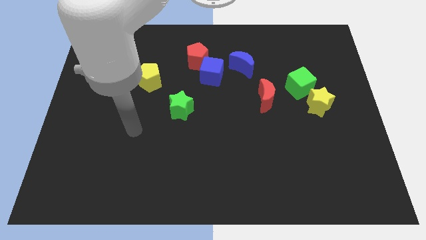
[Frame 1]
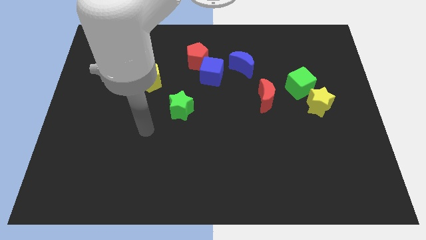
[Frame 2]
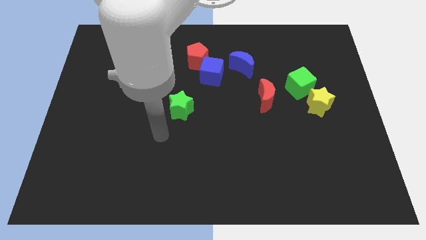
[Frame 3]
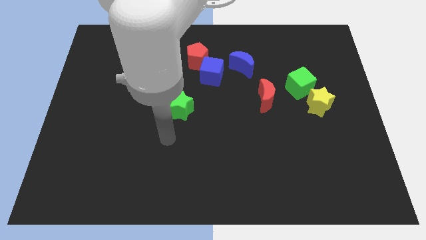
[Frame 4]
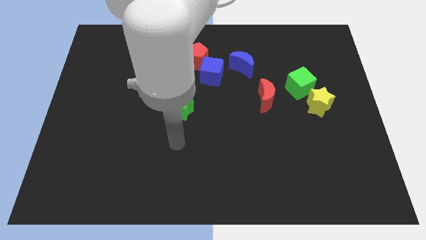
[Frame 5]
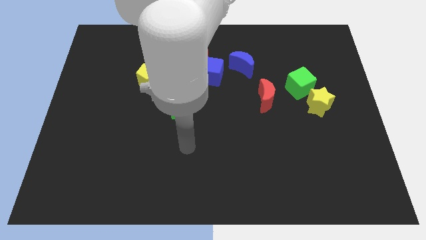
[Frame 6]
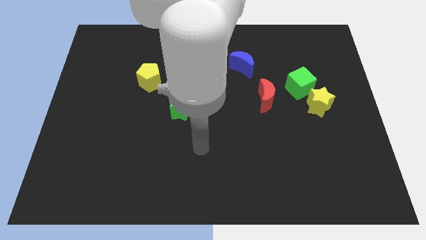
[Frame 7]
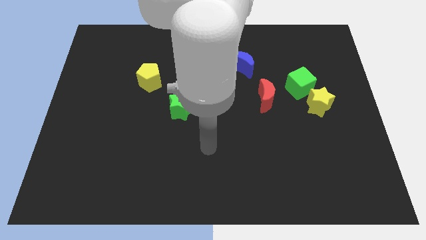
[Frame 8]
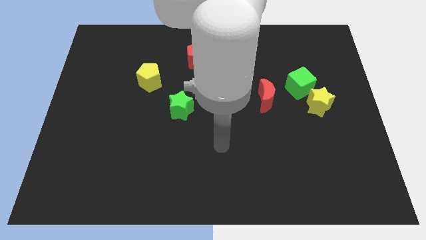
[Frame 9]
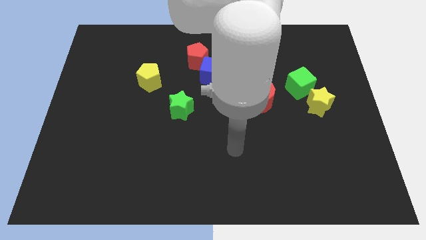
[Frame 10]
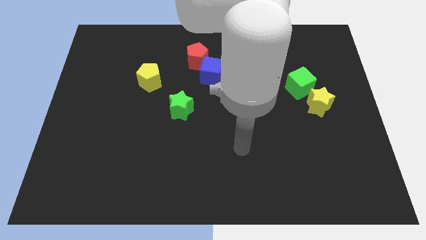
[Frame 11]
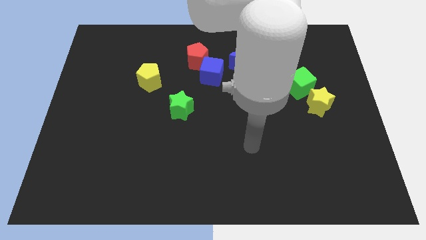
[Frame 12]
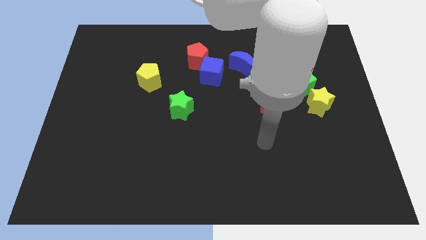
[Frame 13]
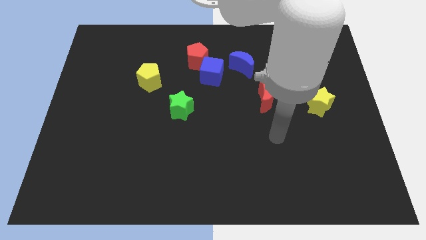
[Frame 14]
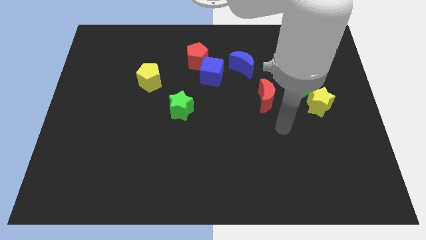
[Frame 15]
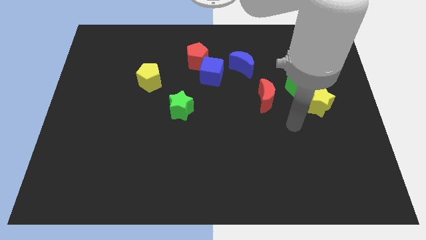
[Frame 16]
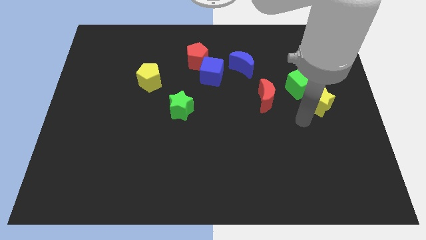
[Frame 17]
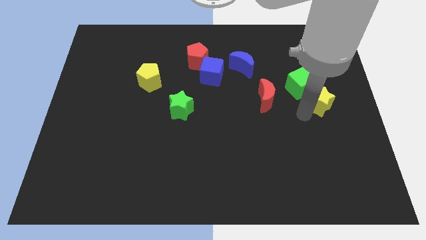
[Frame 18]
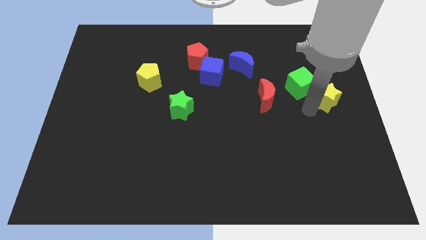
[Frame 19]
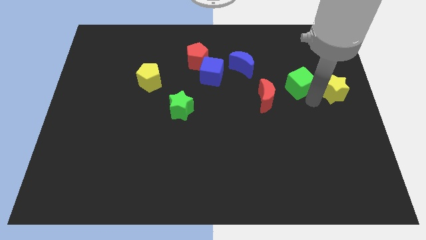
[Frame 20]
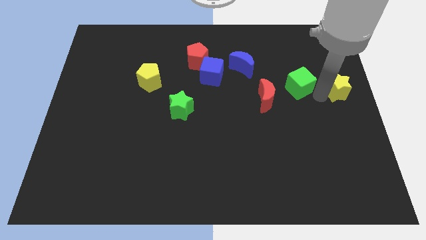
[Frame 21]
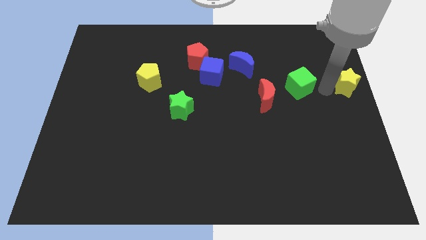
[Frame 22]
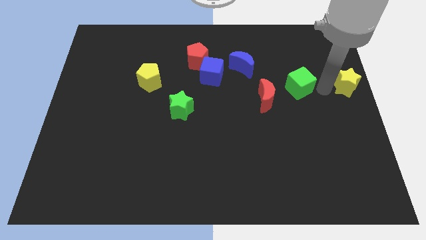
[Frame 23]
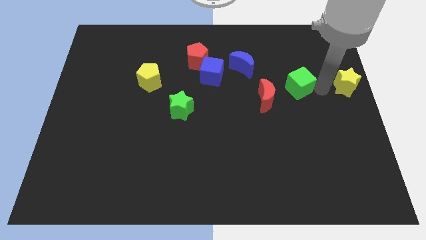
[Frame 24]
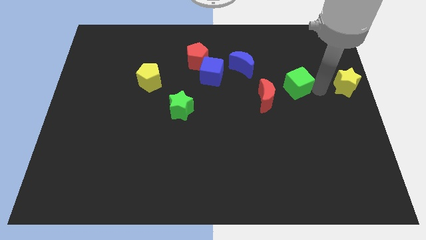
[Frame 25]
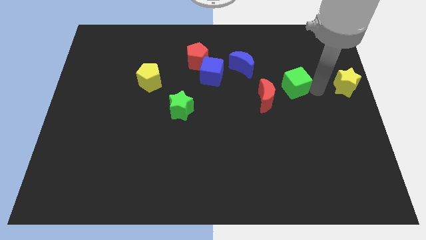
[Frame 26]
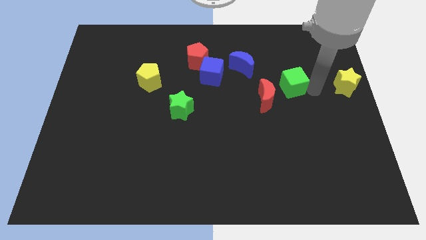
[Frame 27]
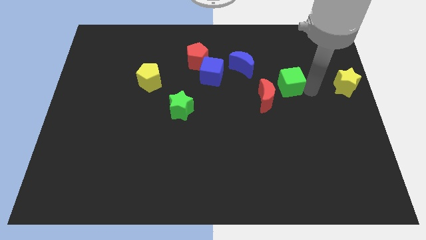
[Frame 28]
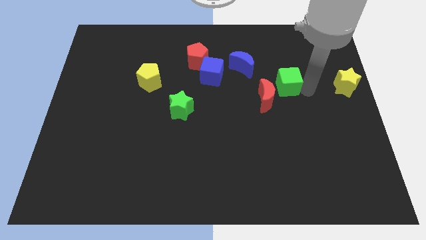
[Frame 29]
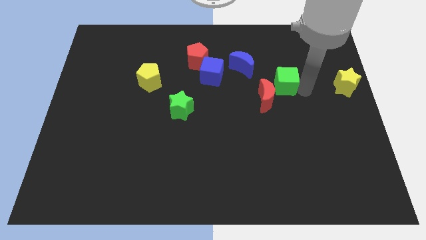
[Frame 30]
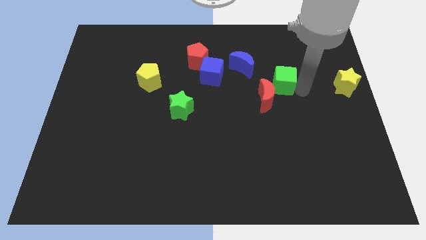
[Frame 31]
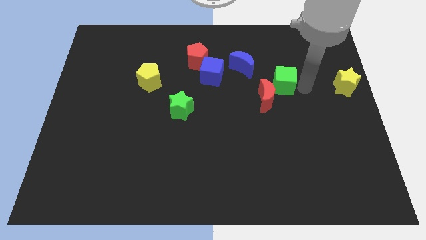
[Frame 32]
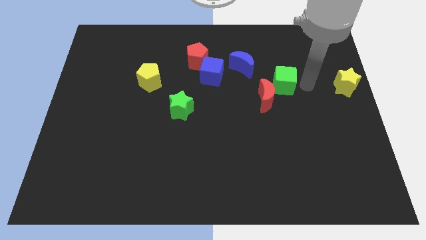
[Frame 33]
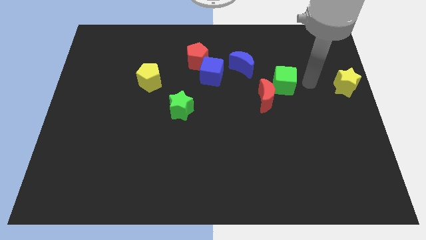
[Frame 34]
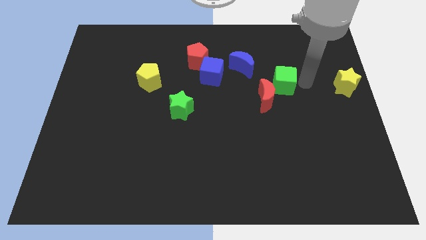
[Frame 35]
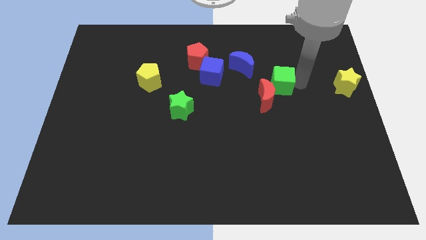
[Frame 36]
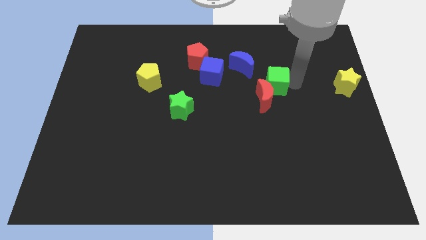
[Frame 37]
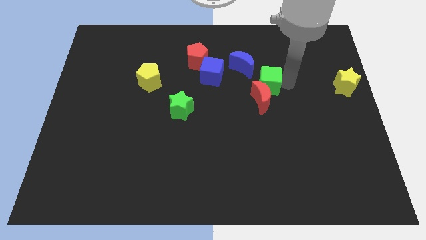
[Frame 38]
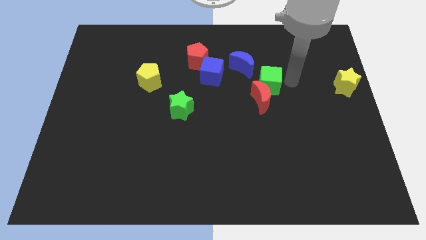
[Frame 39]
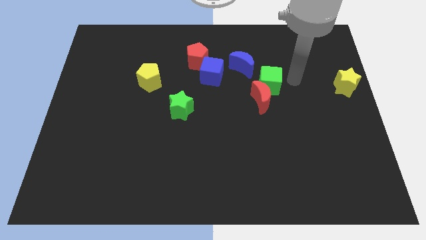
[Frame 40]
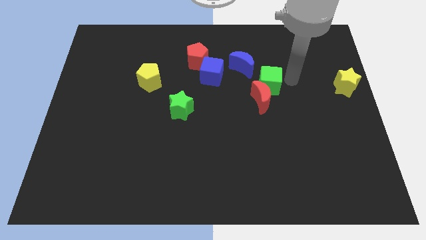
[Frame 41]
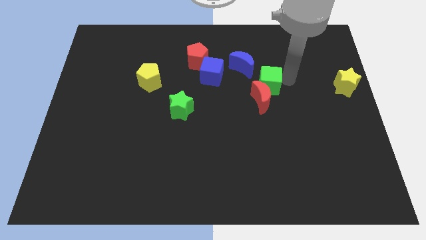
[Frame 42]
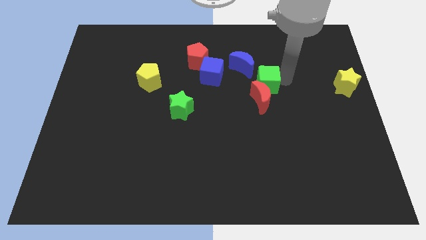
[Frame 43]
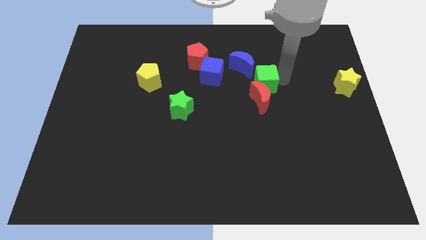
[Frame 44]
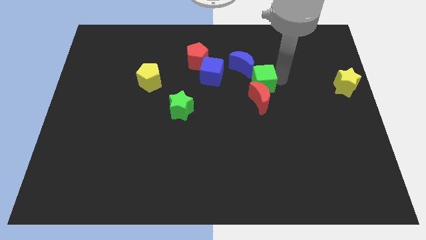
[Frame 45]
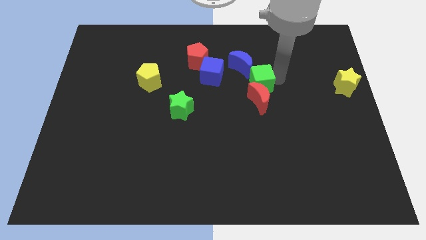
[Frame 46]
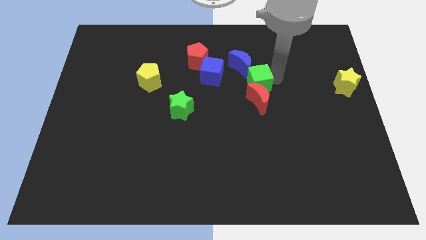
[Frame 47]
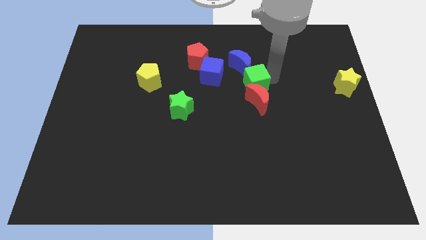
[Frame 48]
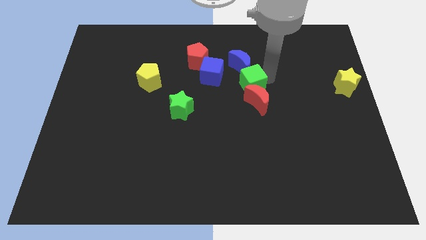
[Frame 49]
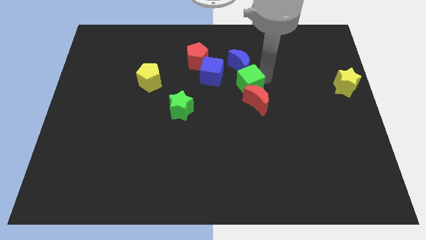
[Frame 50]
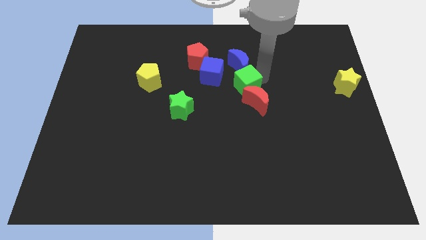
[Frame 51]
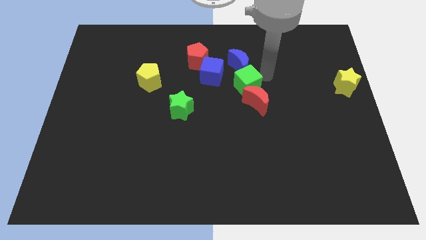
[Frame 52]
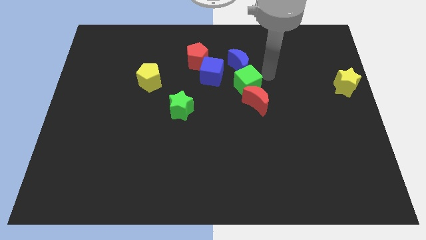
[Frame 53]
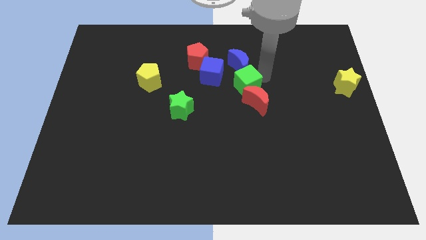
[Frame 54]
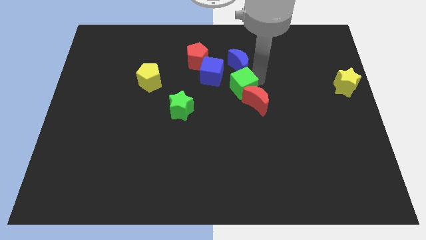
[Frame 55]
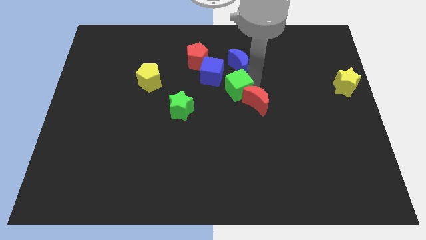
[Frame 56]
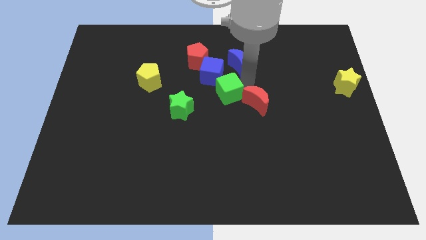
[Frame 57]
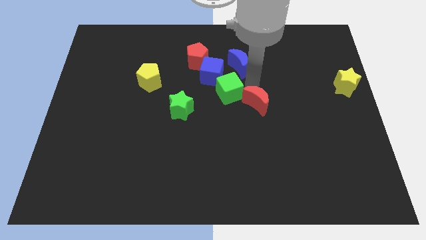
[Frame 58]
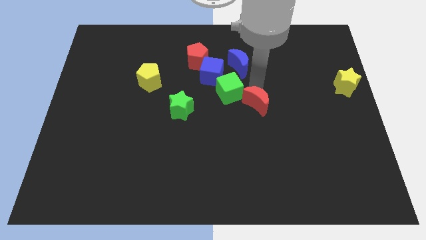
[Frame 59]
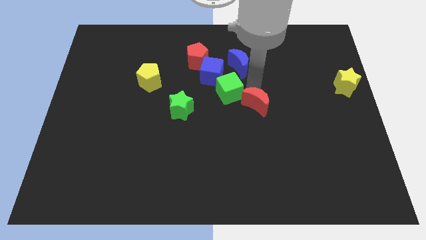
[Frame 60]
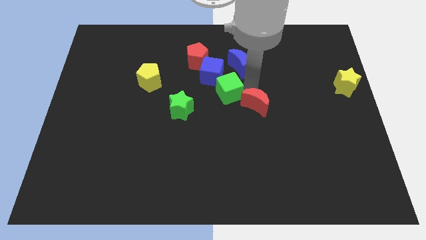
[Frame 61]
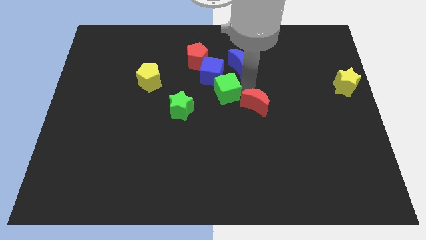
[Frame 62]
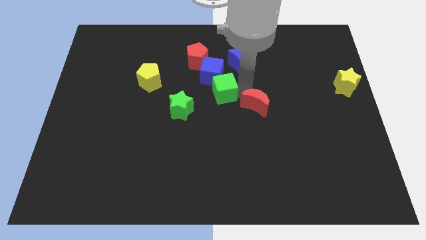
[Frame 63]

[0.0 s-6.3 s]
put the green cube to the top right side of the green star

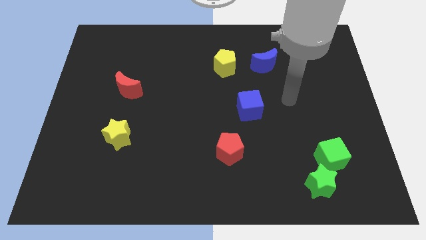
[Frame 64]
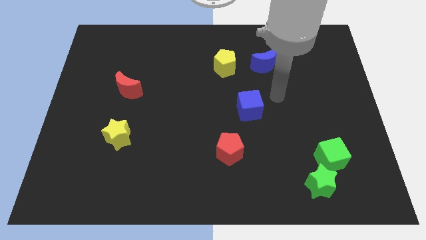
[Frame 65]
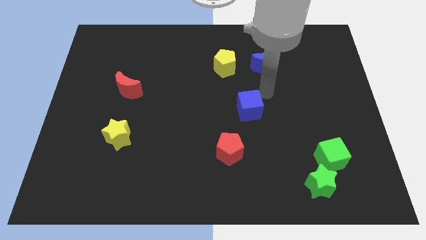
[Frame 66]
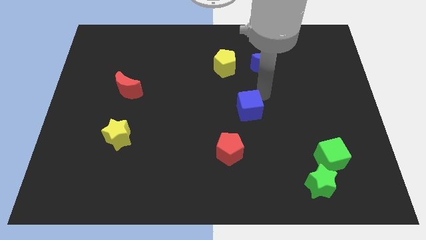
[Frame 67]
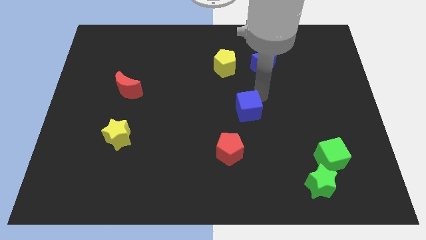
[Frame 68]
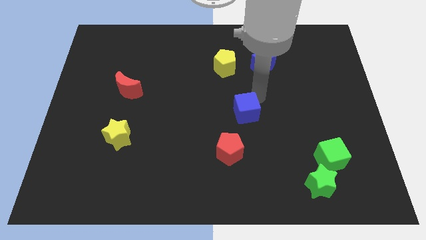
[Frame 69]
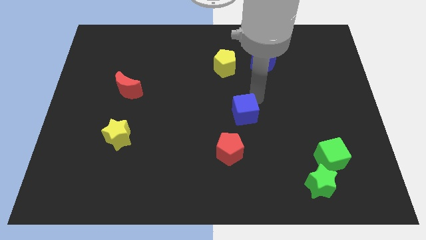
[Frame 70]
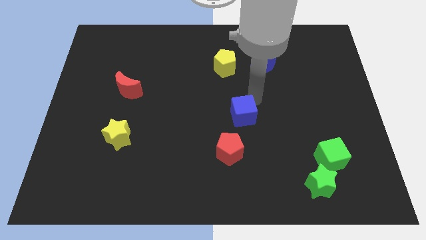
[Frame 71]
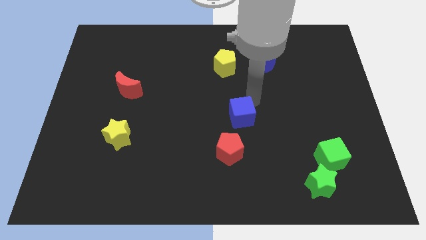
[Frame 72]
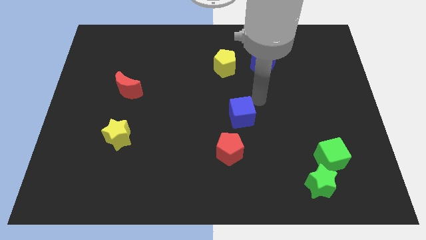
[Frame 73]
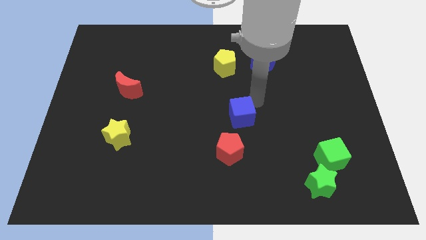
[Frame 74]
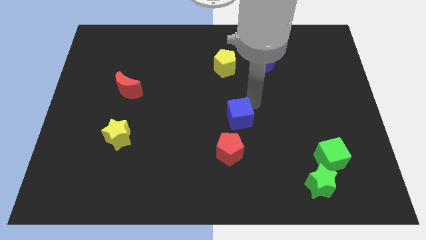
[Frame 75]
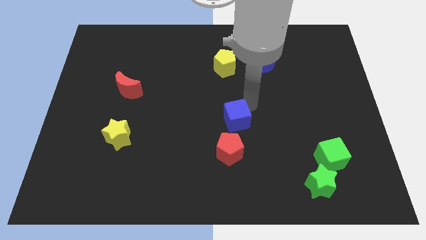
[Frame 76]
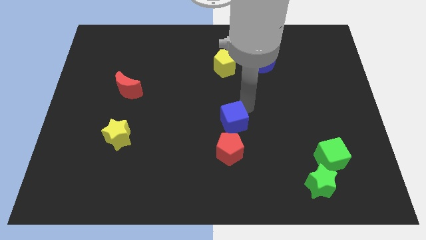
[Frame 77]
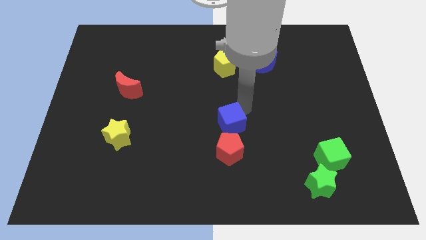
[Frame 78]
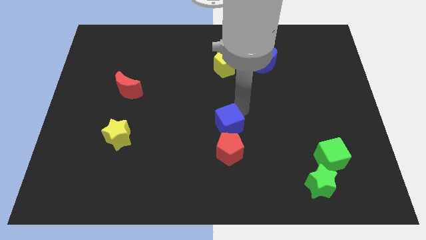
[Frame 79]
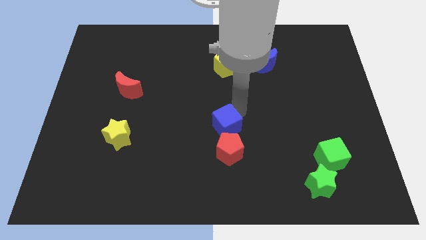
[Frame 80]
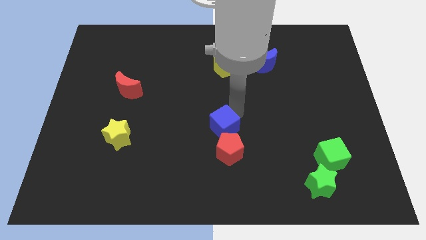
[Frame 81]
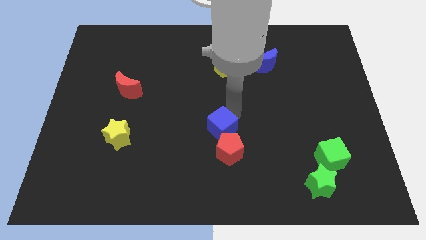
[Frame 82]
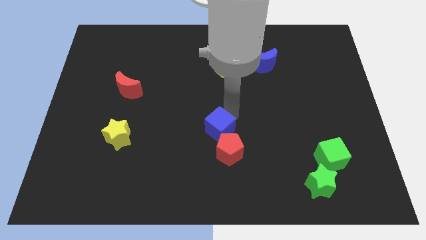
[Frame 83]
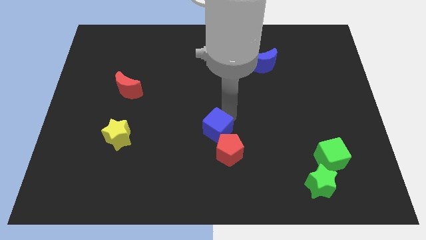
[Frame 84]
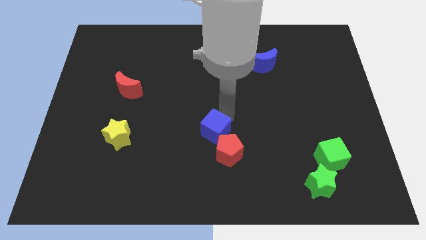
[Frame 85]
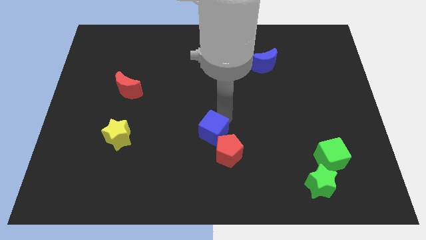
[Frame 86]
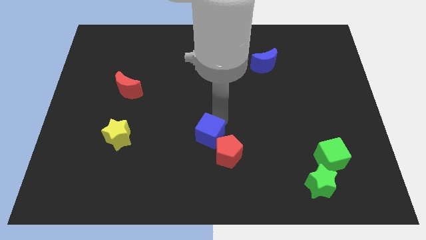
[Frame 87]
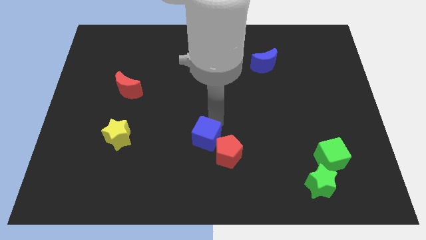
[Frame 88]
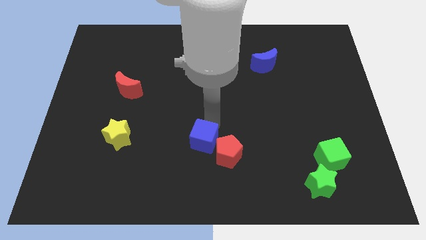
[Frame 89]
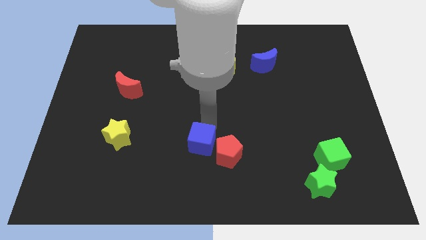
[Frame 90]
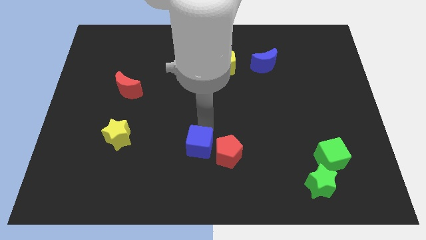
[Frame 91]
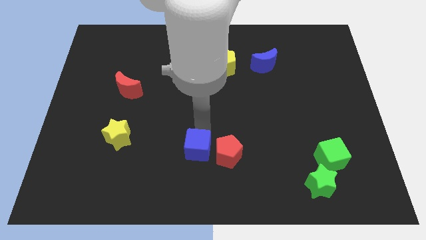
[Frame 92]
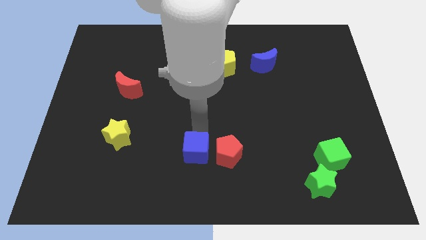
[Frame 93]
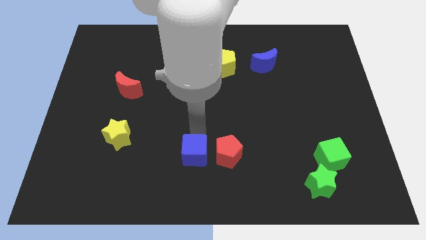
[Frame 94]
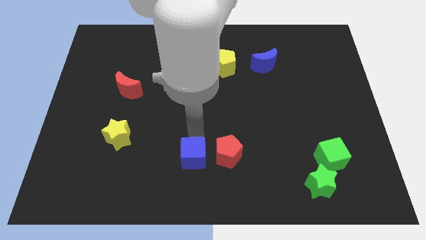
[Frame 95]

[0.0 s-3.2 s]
slide the blue cube diagonally down and to the left of the red pentagon
